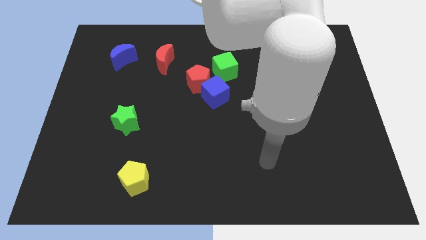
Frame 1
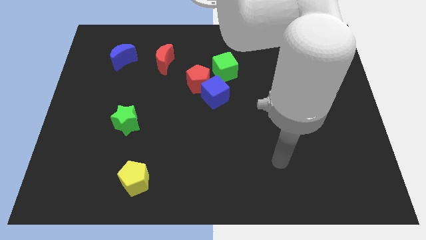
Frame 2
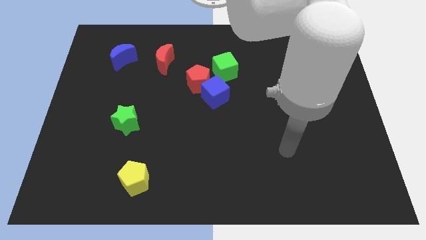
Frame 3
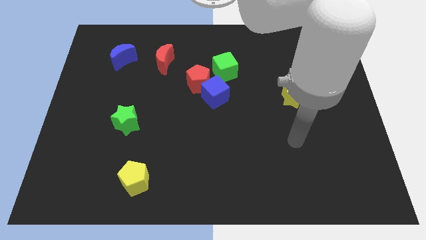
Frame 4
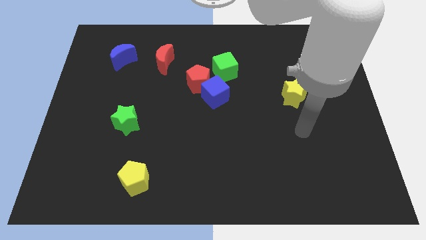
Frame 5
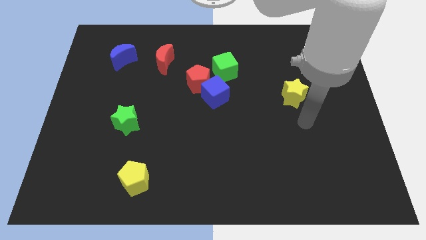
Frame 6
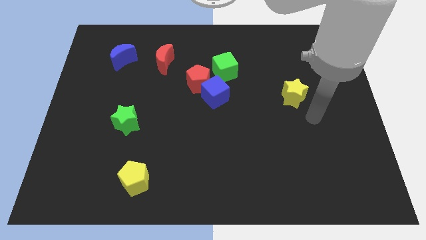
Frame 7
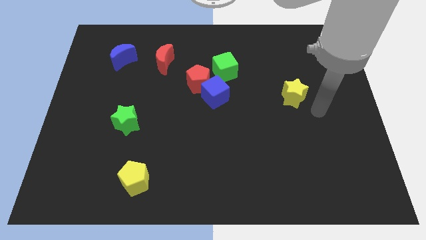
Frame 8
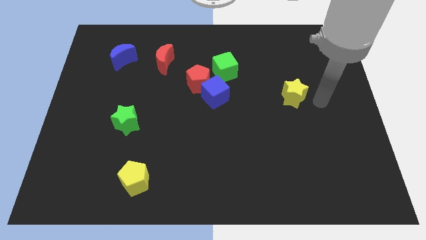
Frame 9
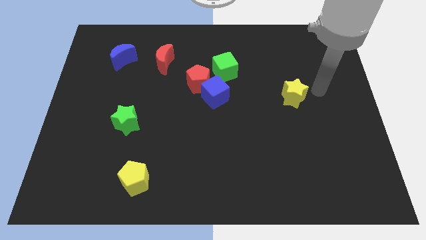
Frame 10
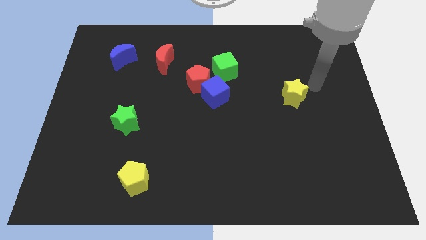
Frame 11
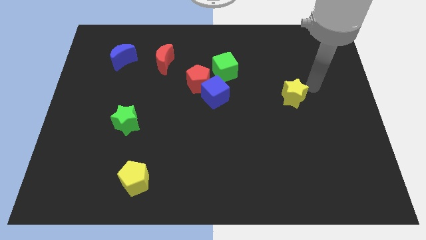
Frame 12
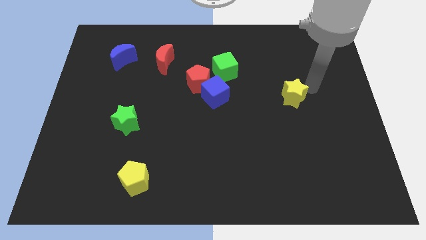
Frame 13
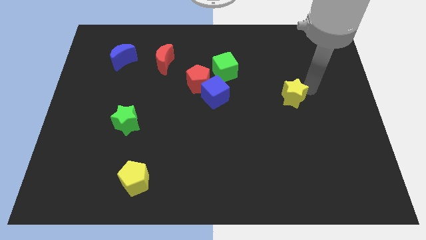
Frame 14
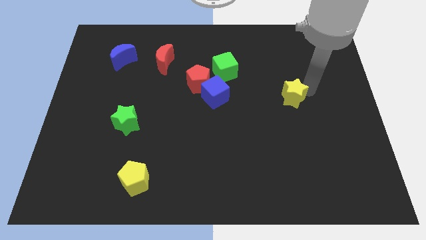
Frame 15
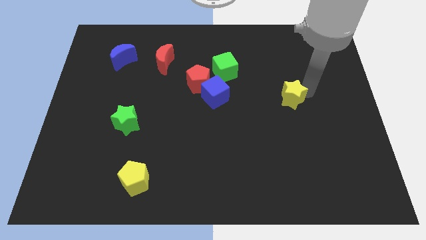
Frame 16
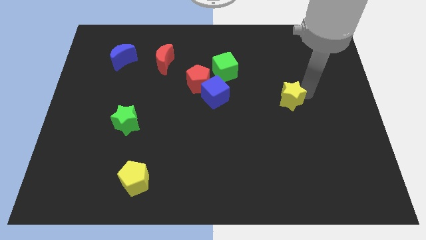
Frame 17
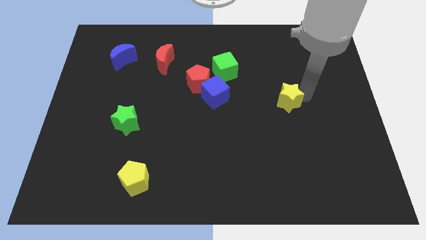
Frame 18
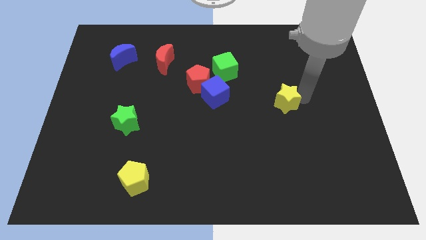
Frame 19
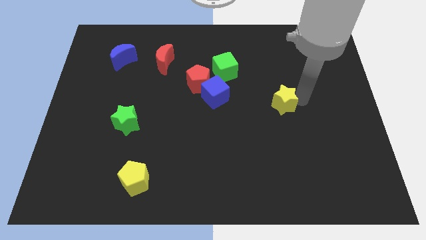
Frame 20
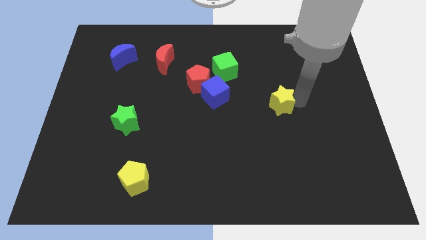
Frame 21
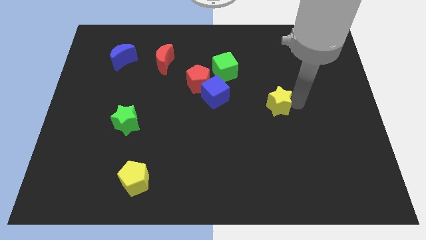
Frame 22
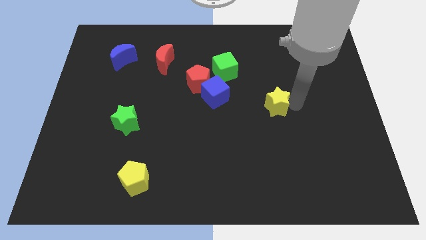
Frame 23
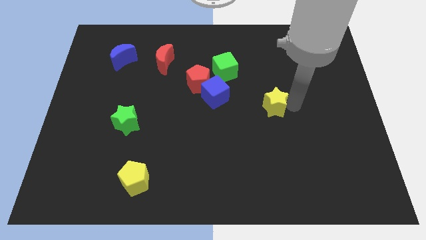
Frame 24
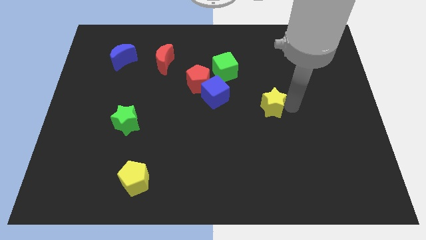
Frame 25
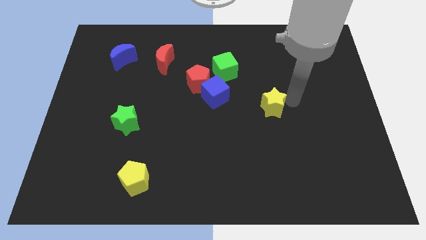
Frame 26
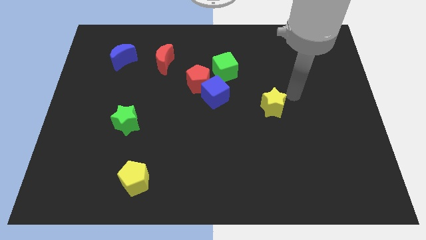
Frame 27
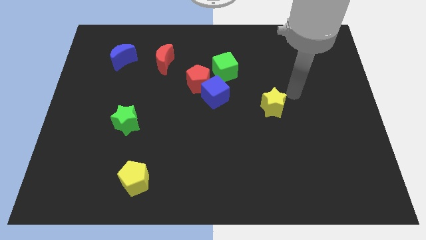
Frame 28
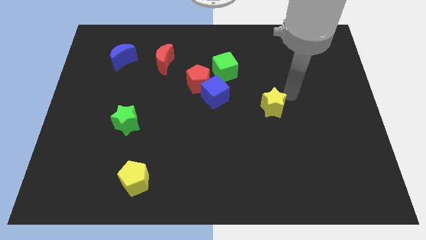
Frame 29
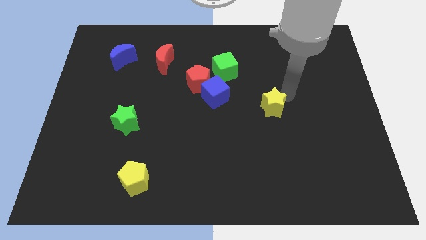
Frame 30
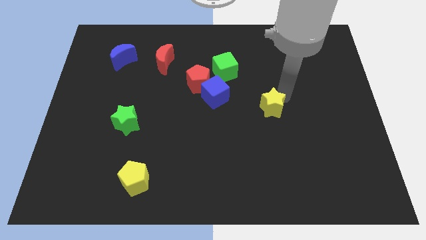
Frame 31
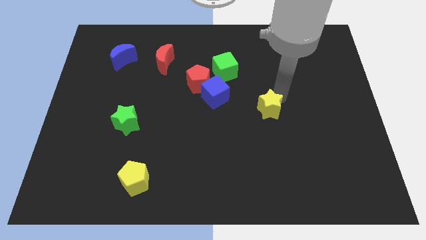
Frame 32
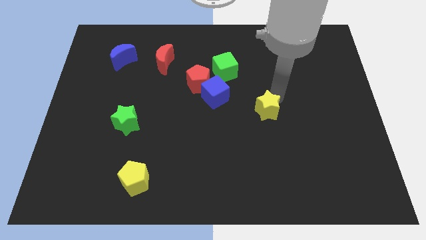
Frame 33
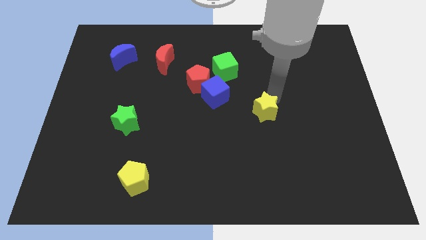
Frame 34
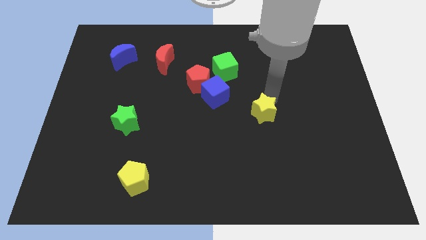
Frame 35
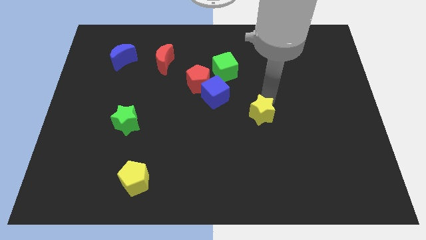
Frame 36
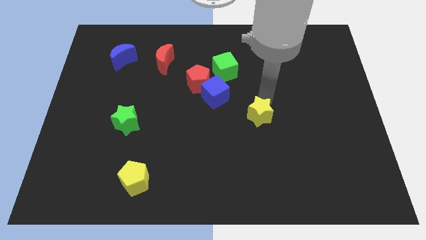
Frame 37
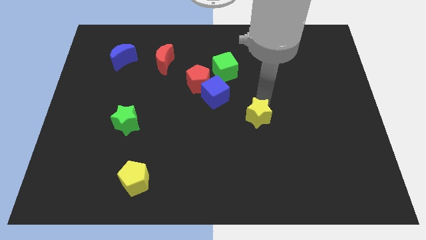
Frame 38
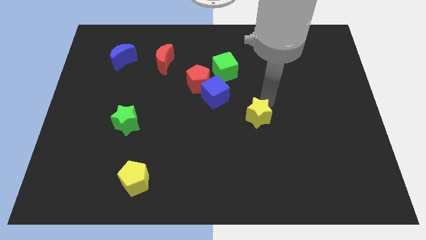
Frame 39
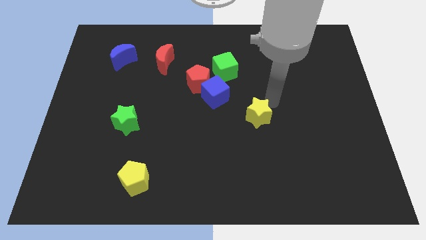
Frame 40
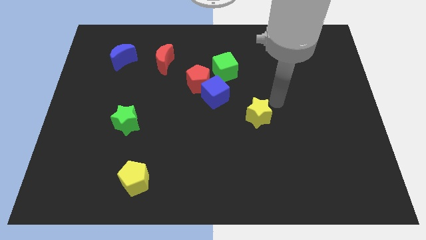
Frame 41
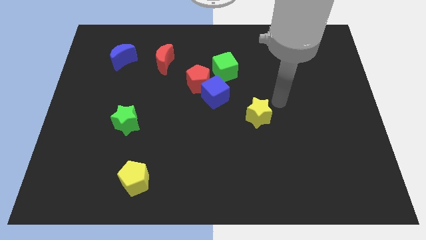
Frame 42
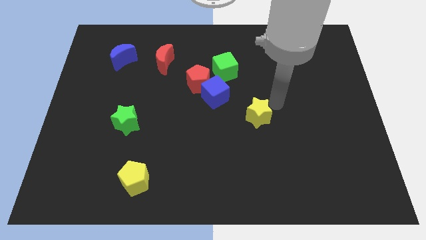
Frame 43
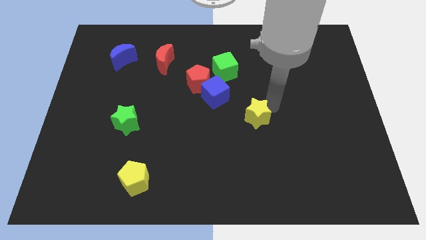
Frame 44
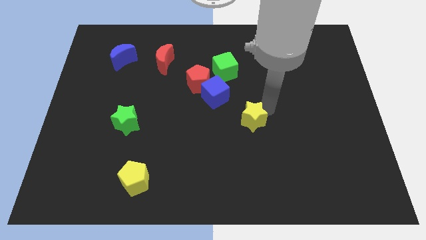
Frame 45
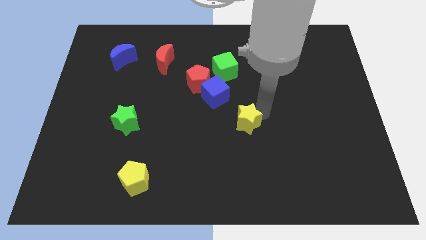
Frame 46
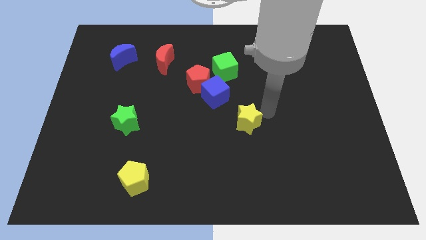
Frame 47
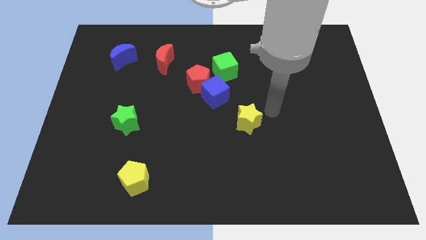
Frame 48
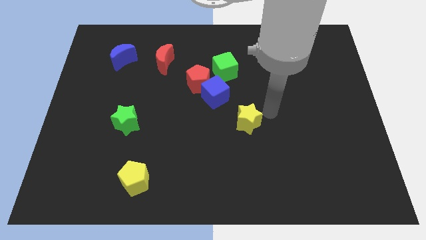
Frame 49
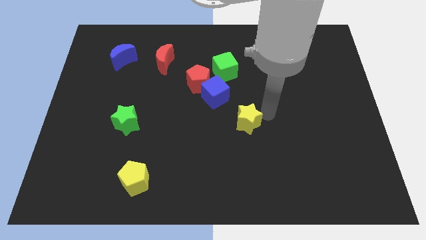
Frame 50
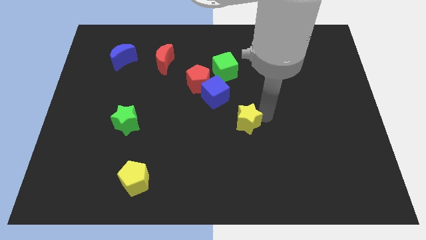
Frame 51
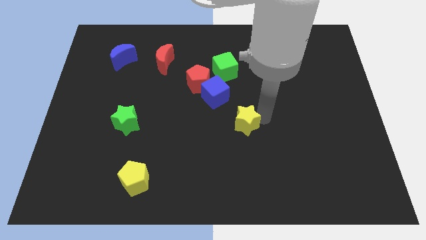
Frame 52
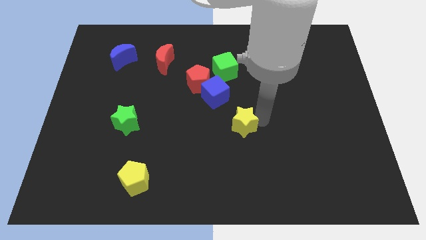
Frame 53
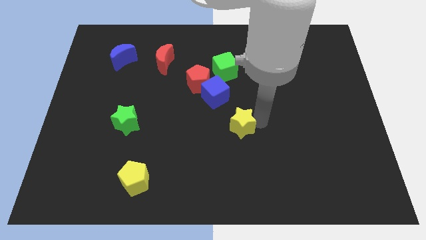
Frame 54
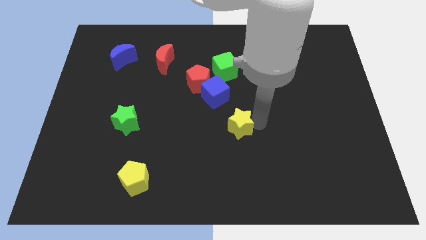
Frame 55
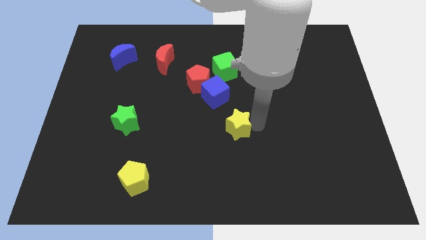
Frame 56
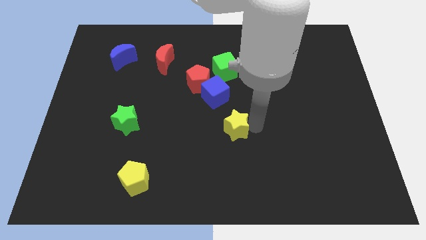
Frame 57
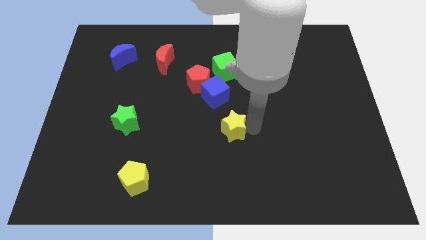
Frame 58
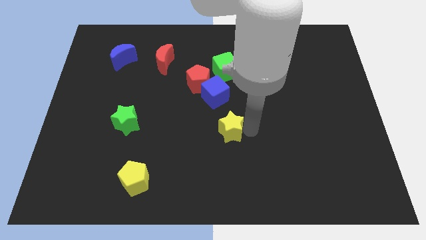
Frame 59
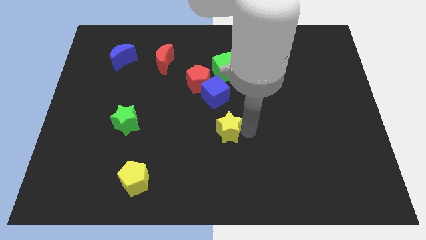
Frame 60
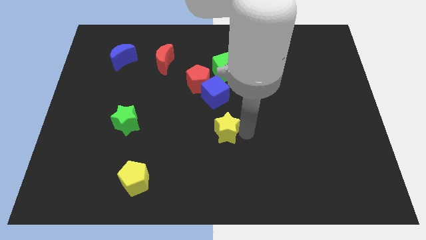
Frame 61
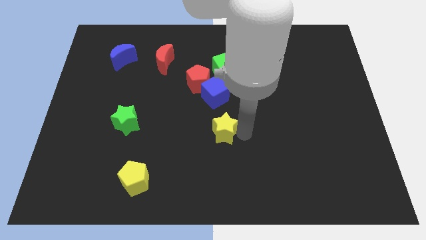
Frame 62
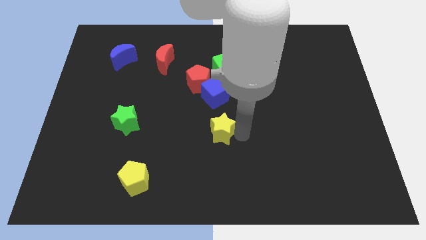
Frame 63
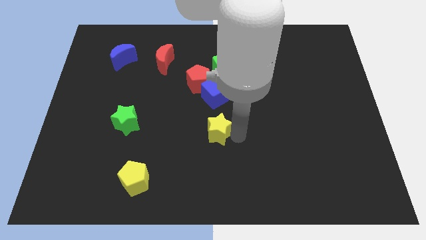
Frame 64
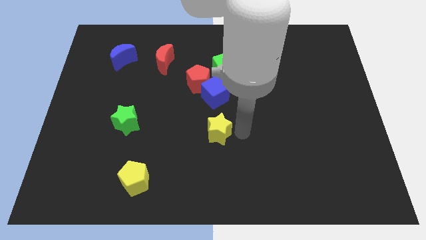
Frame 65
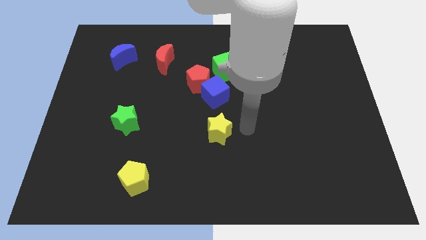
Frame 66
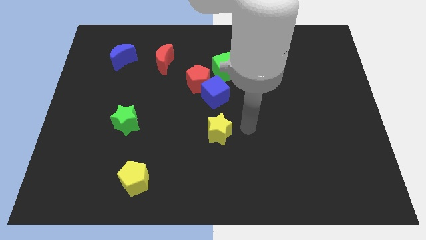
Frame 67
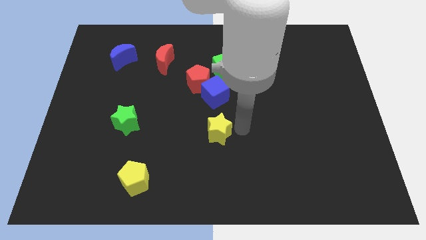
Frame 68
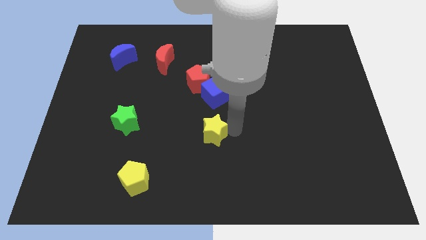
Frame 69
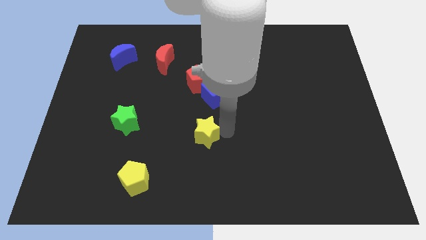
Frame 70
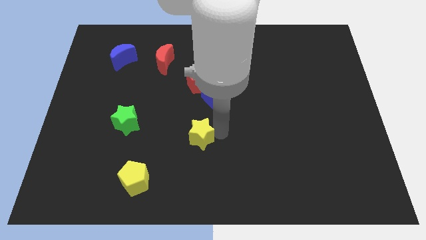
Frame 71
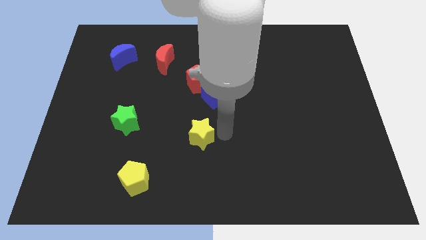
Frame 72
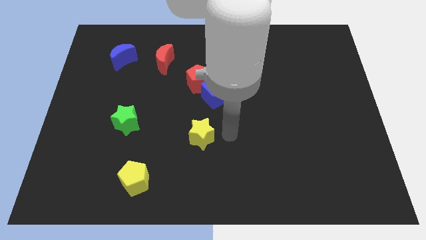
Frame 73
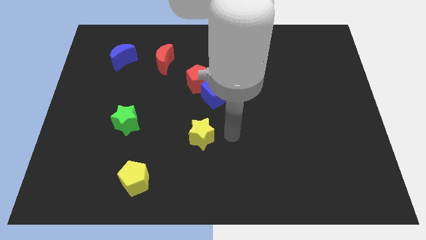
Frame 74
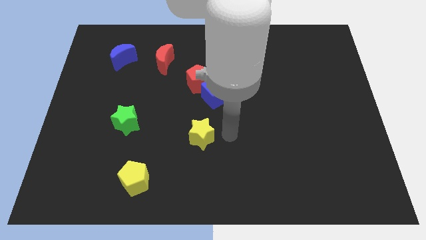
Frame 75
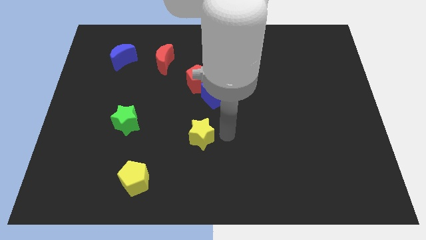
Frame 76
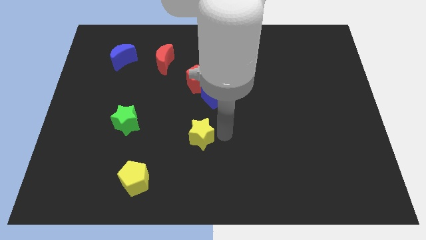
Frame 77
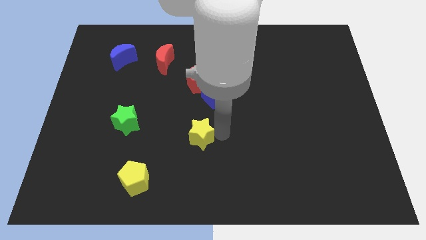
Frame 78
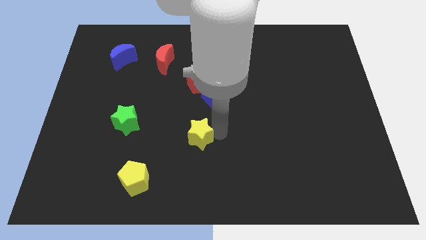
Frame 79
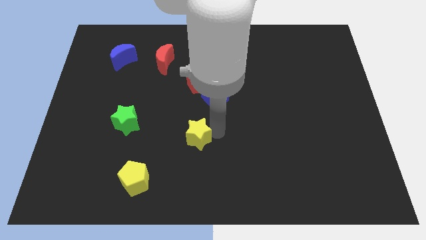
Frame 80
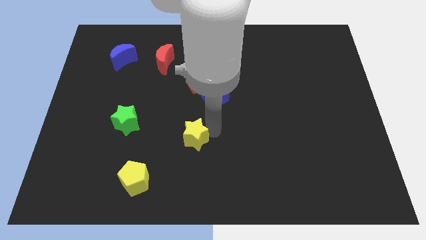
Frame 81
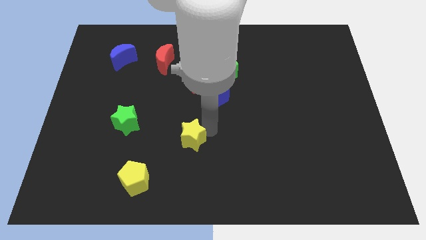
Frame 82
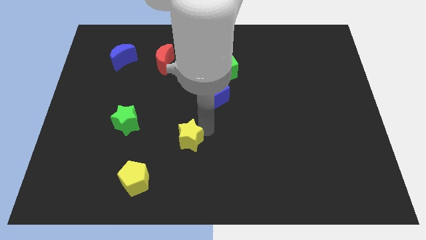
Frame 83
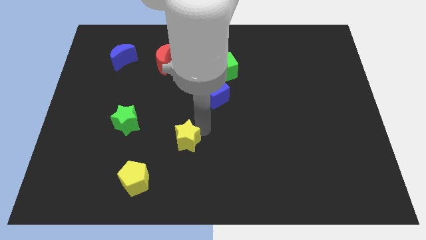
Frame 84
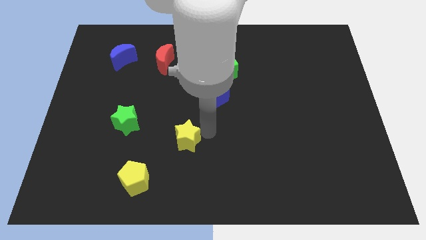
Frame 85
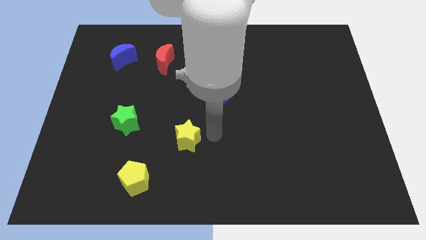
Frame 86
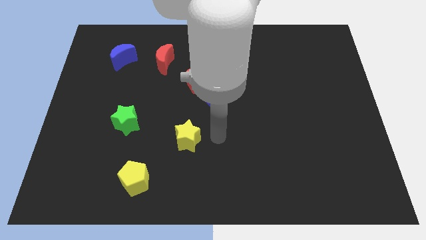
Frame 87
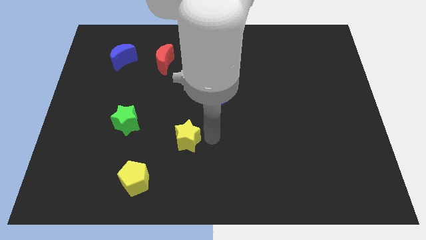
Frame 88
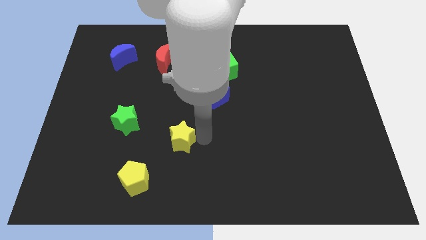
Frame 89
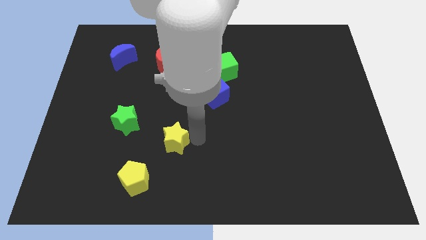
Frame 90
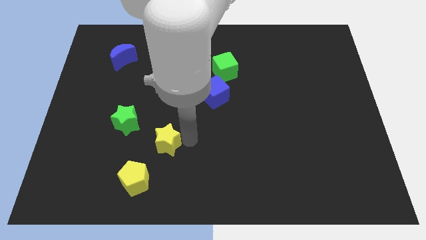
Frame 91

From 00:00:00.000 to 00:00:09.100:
put the yellow star diagonally down and to the right of the green star
